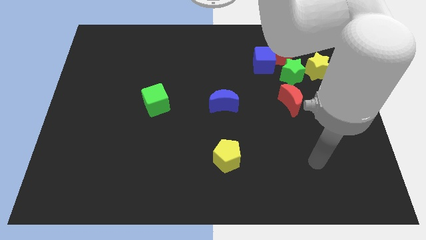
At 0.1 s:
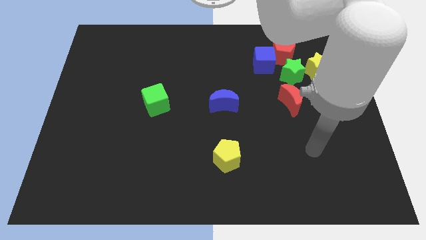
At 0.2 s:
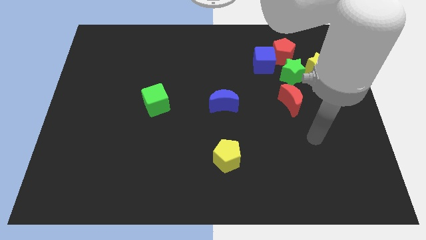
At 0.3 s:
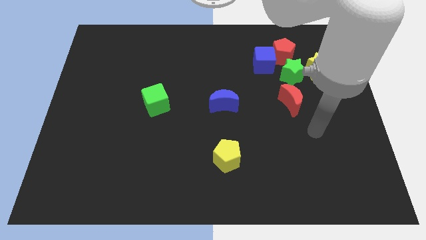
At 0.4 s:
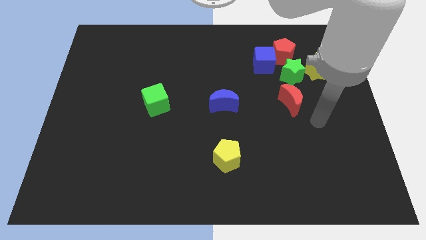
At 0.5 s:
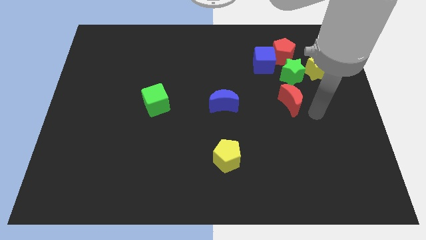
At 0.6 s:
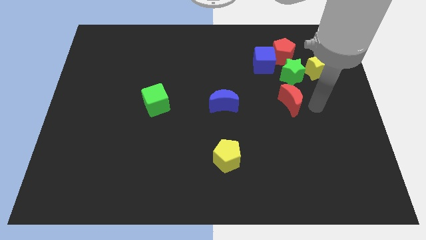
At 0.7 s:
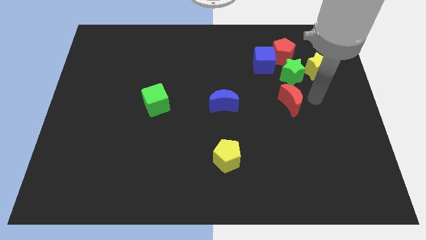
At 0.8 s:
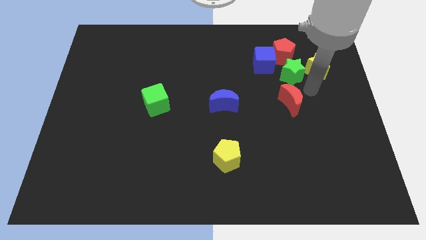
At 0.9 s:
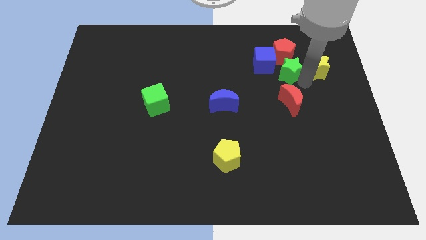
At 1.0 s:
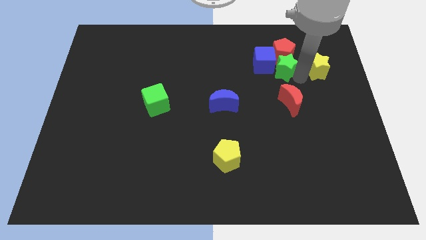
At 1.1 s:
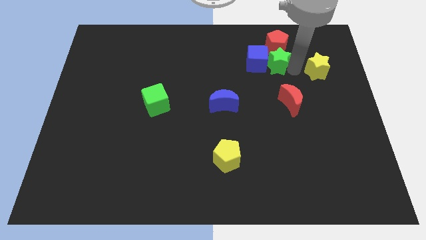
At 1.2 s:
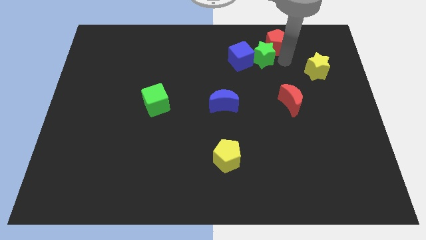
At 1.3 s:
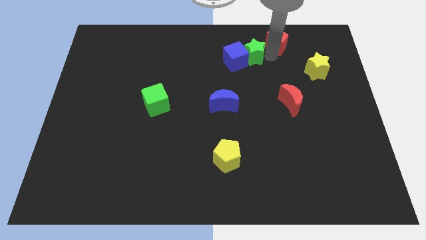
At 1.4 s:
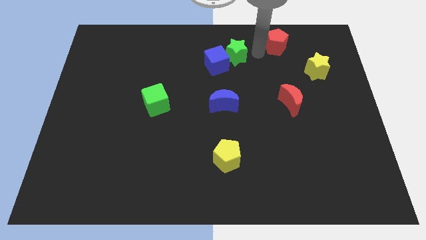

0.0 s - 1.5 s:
separate the blue cube from the red pentagon and green star

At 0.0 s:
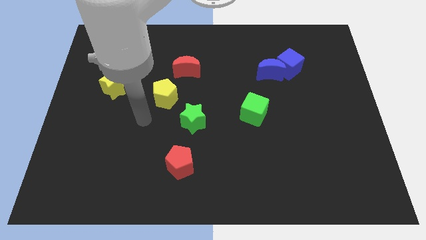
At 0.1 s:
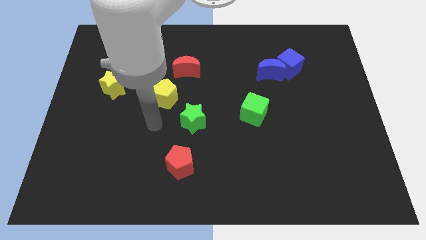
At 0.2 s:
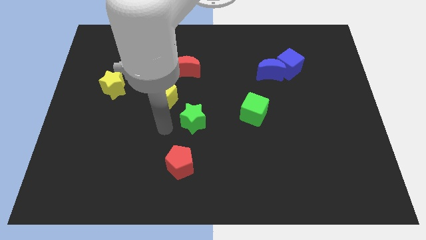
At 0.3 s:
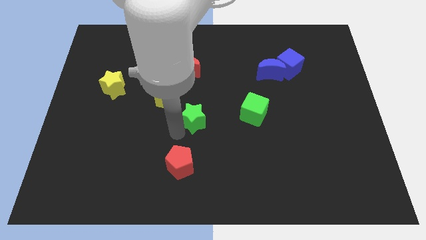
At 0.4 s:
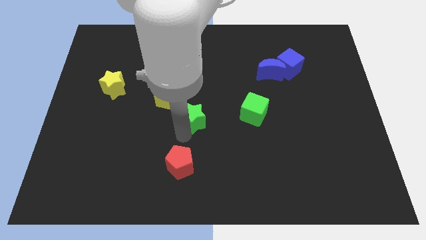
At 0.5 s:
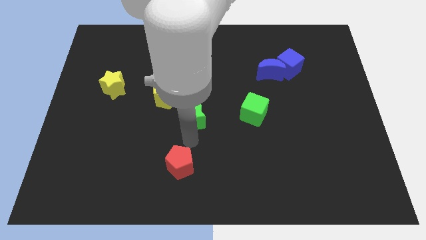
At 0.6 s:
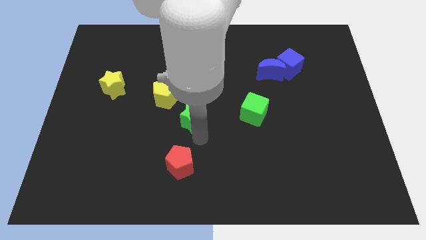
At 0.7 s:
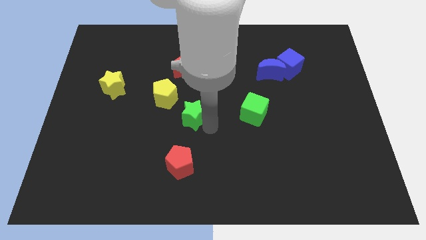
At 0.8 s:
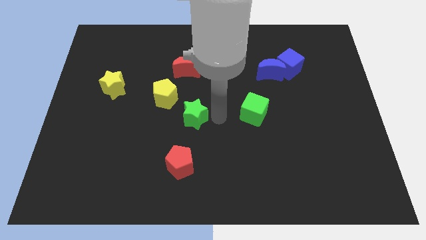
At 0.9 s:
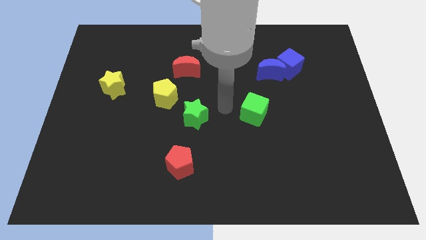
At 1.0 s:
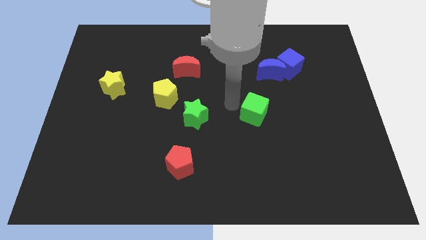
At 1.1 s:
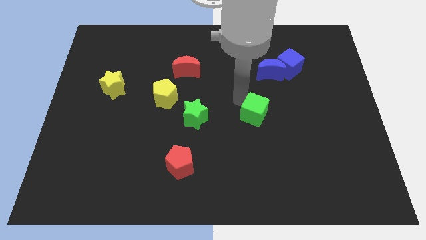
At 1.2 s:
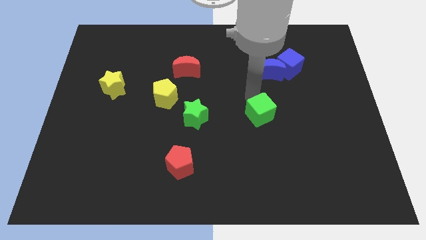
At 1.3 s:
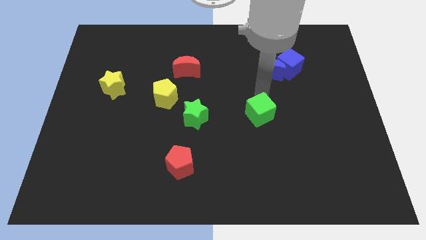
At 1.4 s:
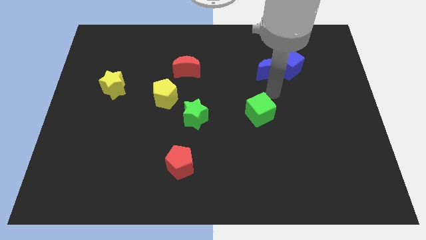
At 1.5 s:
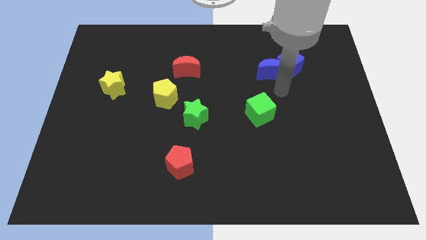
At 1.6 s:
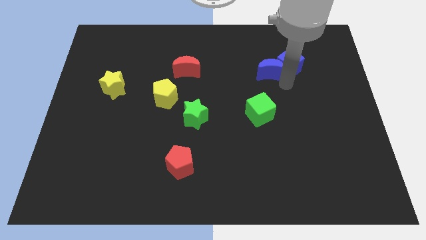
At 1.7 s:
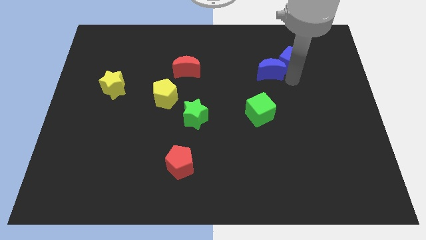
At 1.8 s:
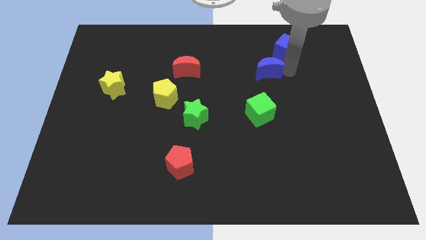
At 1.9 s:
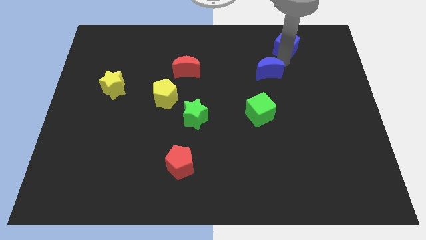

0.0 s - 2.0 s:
separate the blue moon from the blue cube

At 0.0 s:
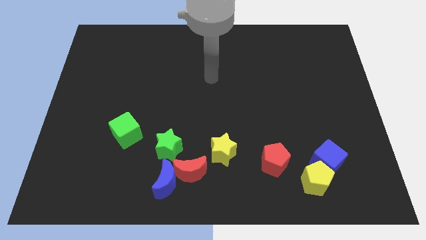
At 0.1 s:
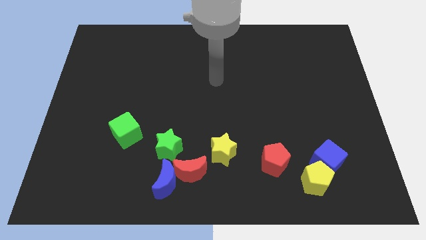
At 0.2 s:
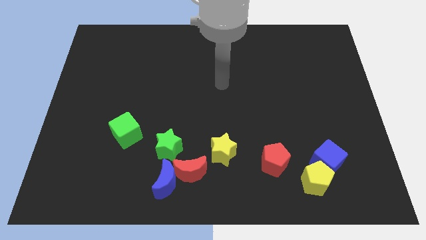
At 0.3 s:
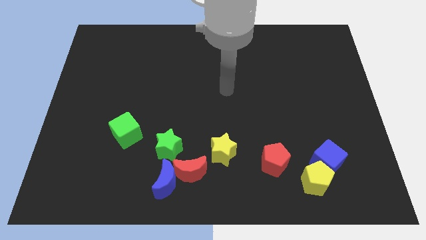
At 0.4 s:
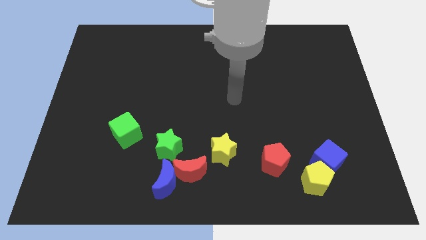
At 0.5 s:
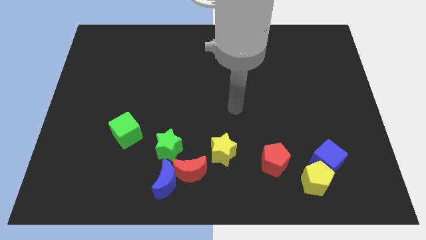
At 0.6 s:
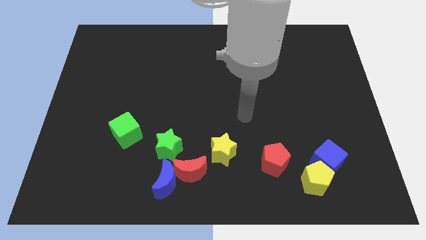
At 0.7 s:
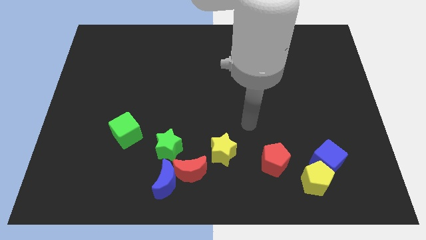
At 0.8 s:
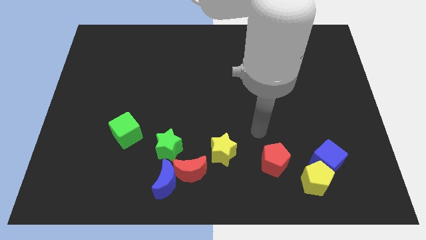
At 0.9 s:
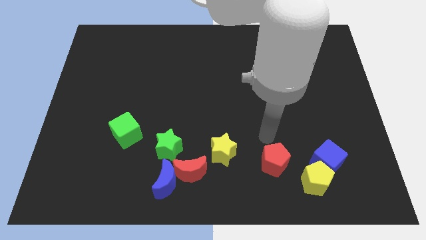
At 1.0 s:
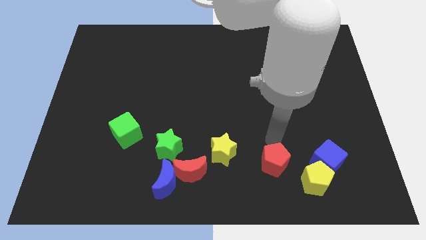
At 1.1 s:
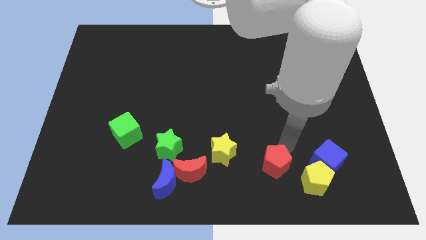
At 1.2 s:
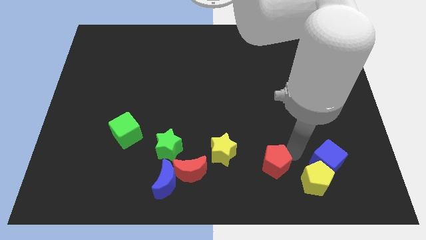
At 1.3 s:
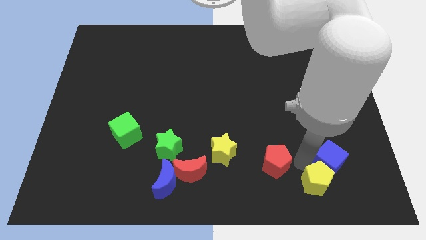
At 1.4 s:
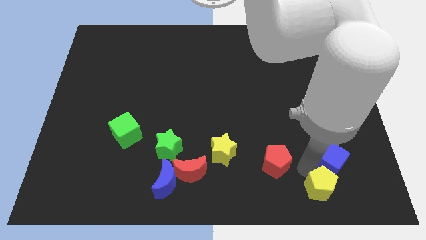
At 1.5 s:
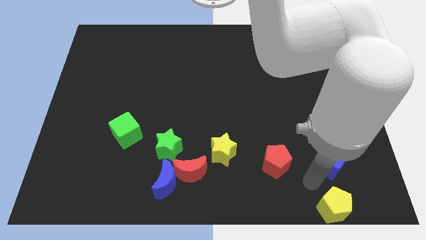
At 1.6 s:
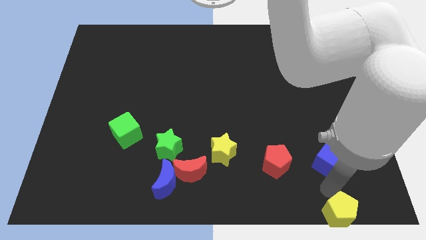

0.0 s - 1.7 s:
separate the blue cube from the yellow pentagon

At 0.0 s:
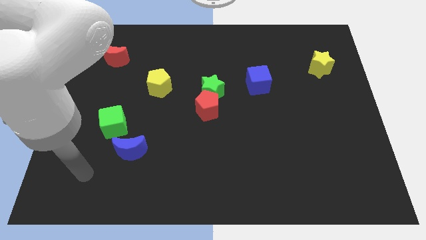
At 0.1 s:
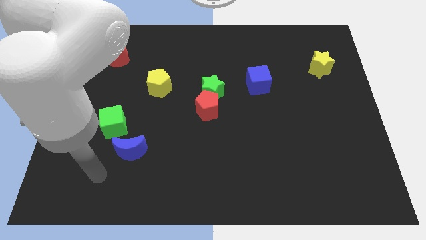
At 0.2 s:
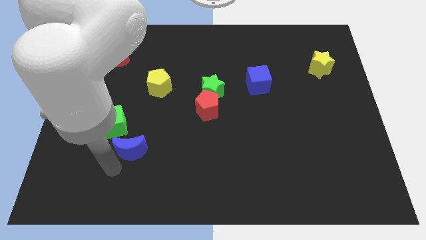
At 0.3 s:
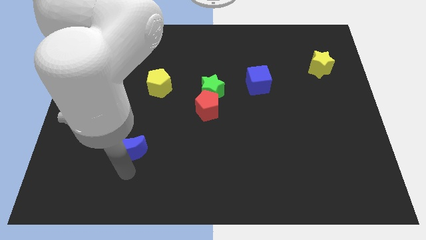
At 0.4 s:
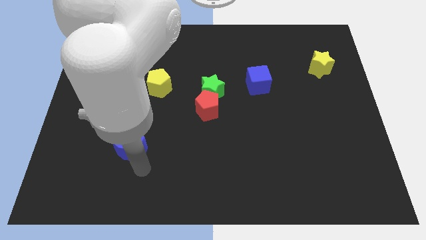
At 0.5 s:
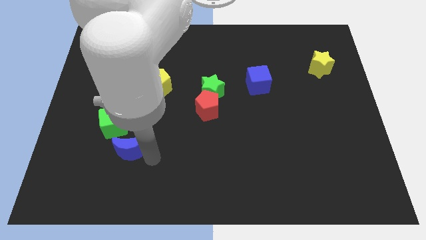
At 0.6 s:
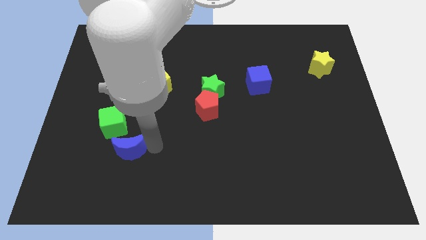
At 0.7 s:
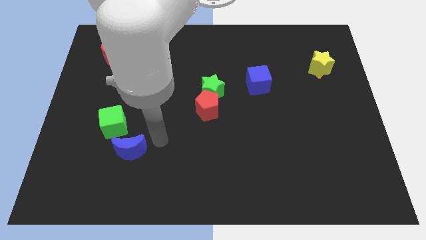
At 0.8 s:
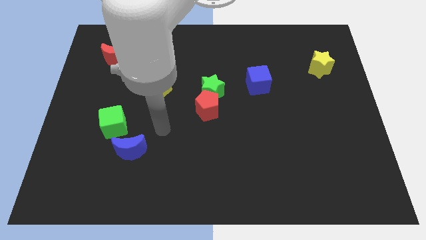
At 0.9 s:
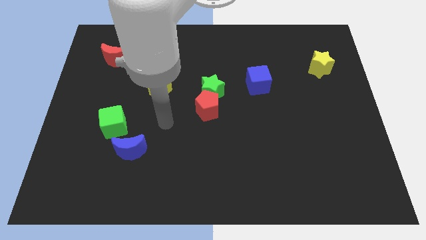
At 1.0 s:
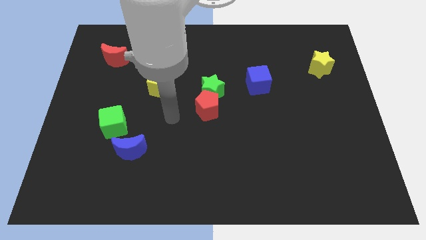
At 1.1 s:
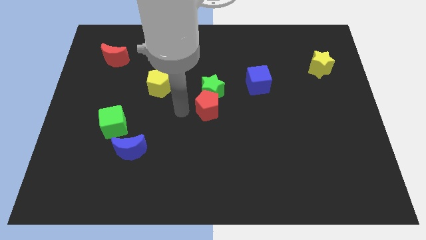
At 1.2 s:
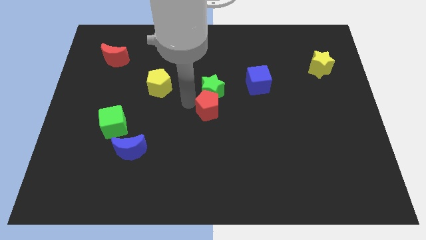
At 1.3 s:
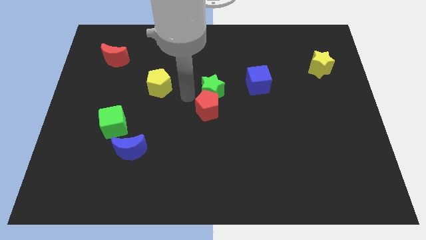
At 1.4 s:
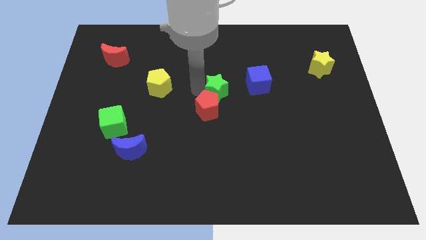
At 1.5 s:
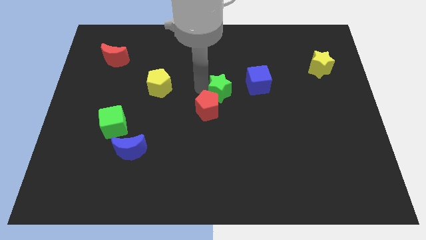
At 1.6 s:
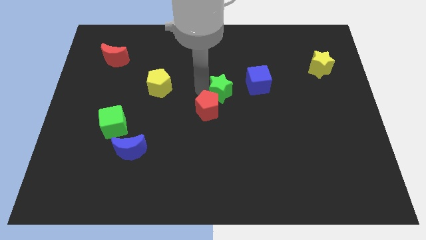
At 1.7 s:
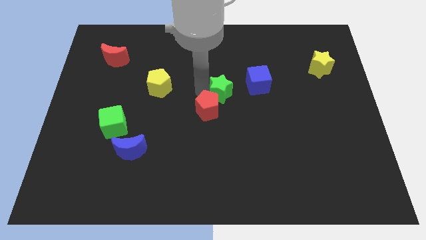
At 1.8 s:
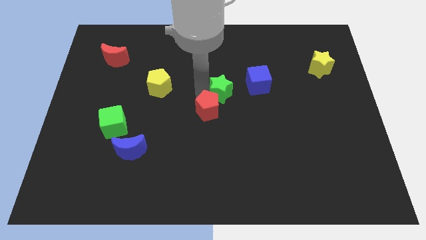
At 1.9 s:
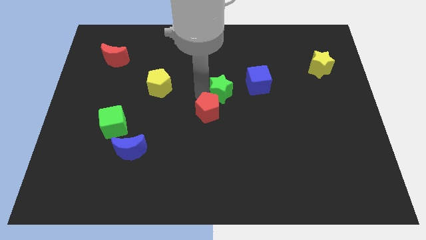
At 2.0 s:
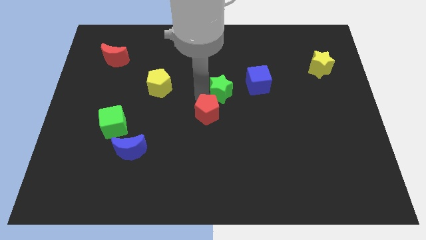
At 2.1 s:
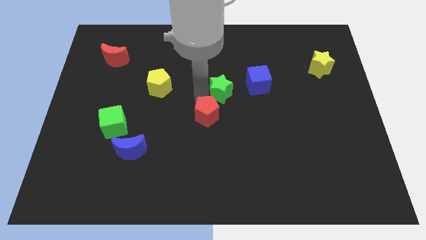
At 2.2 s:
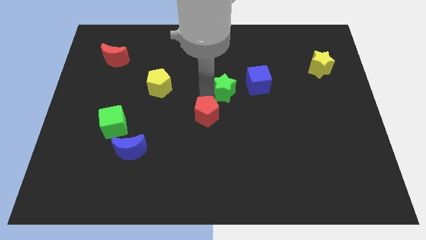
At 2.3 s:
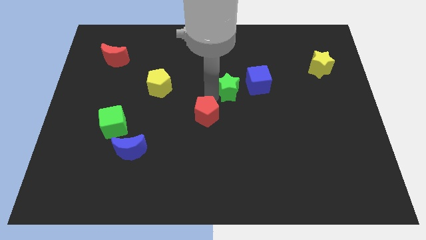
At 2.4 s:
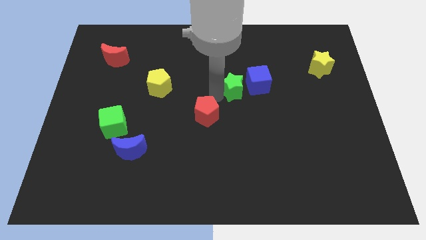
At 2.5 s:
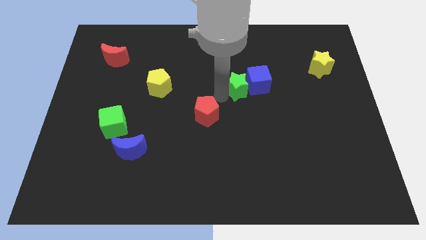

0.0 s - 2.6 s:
separate the red pentagon from the green star

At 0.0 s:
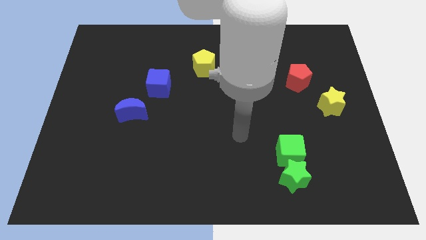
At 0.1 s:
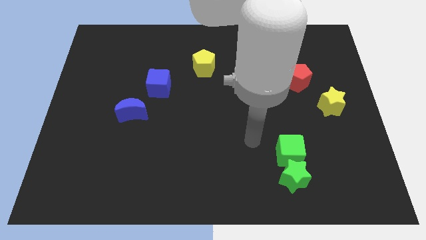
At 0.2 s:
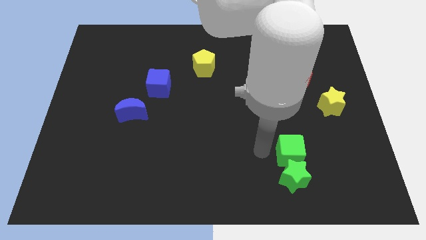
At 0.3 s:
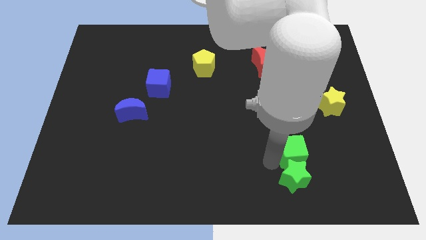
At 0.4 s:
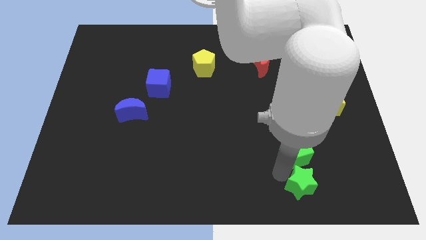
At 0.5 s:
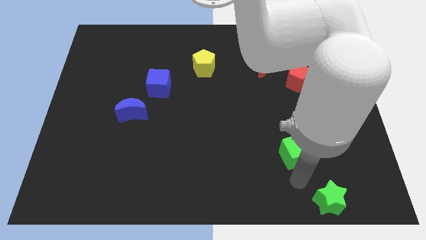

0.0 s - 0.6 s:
separate the green cube from the green star

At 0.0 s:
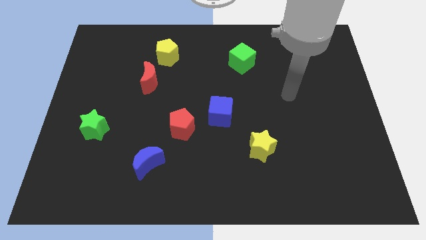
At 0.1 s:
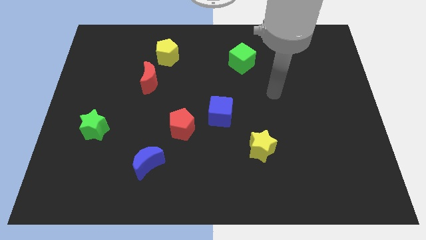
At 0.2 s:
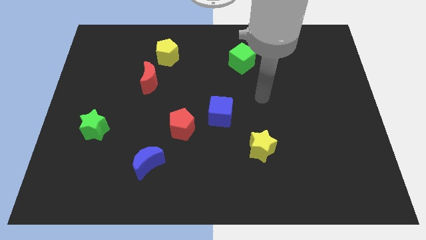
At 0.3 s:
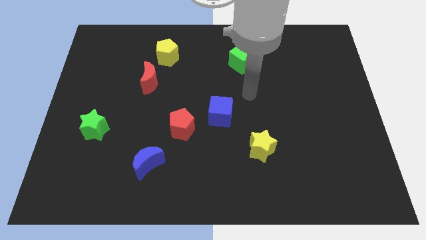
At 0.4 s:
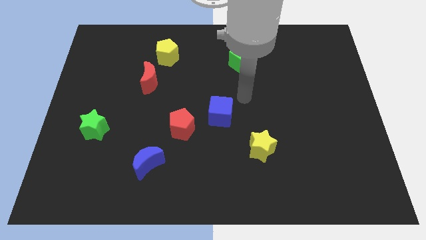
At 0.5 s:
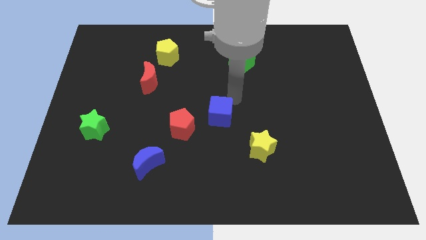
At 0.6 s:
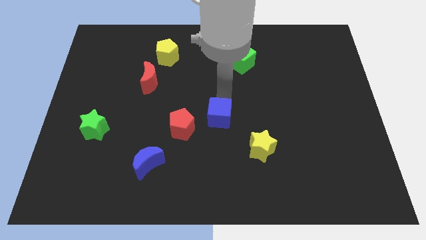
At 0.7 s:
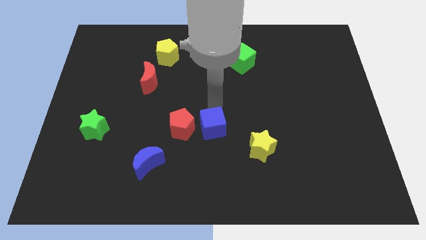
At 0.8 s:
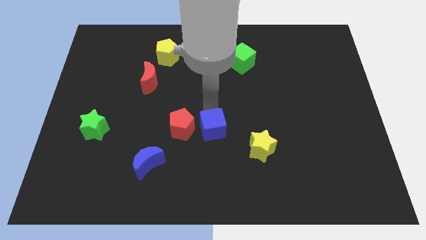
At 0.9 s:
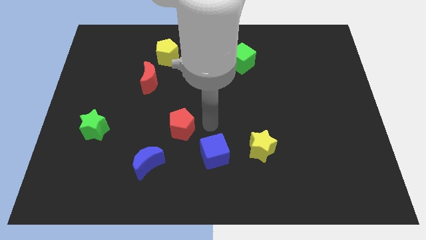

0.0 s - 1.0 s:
separate the red pentagon from the blue cube
